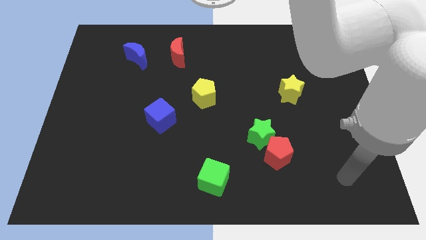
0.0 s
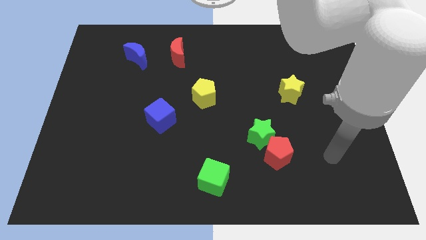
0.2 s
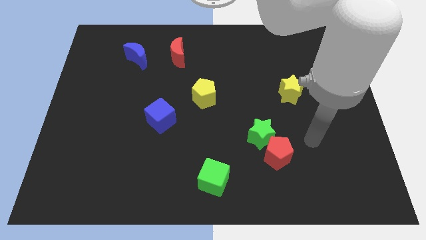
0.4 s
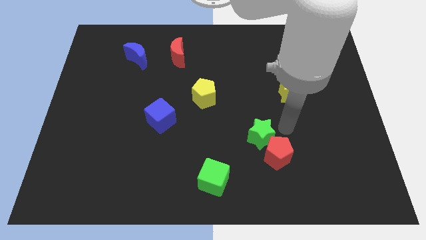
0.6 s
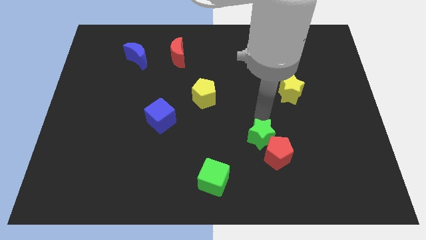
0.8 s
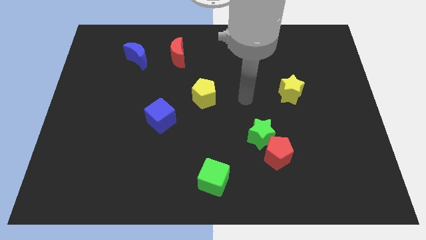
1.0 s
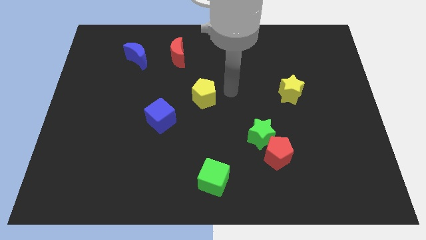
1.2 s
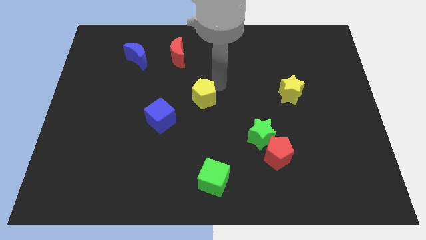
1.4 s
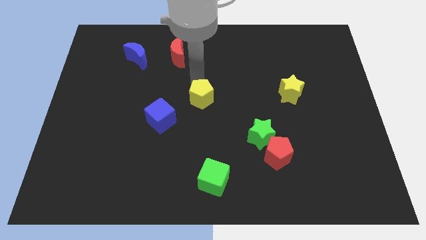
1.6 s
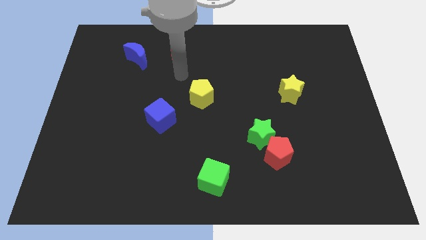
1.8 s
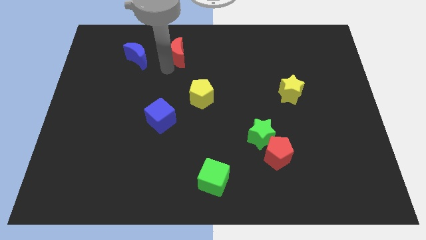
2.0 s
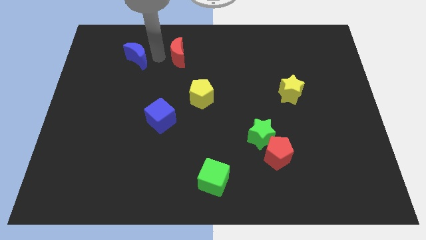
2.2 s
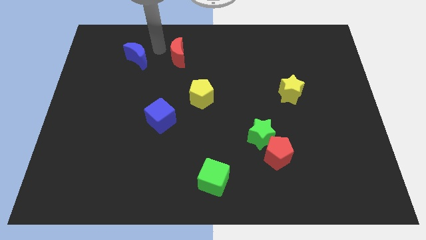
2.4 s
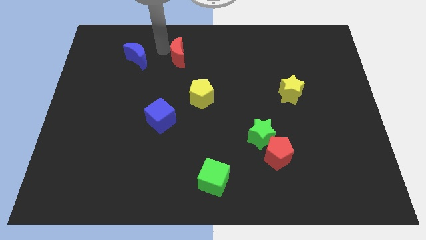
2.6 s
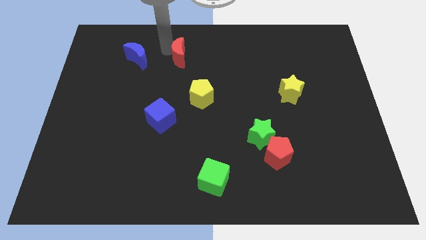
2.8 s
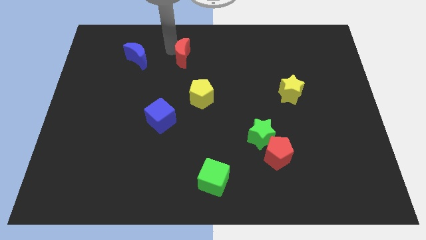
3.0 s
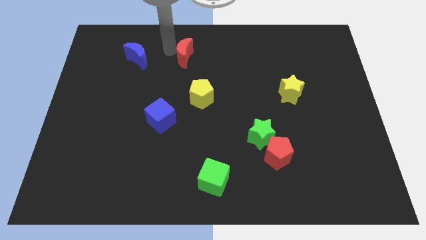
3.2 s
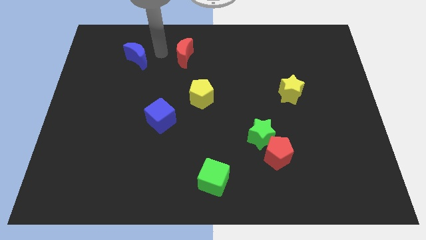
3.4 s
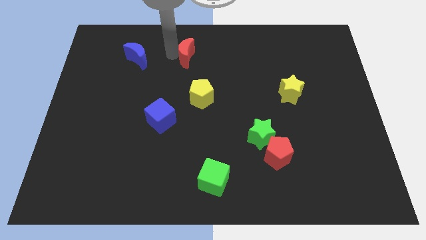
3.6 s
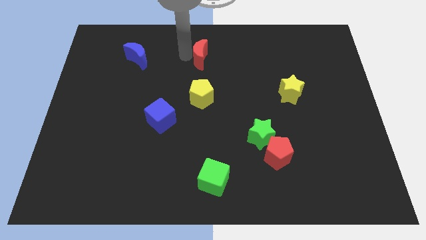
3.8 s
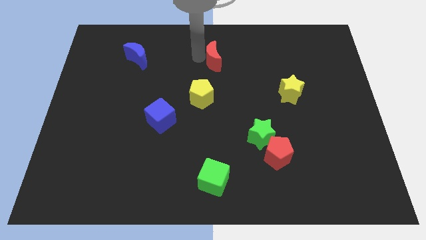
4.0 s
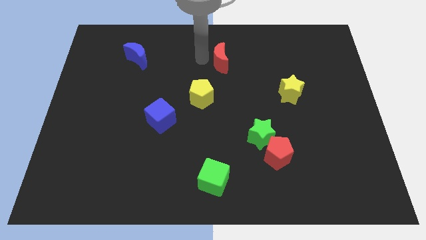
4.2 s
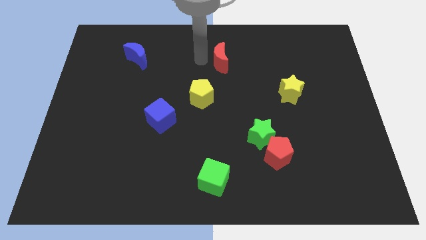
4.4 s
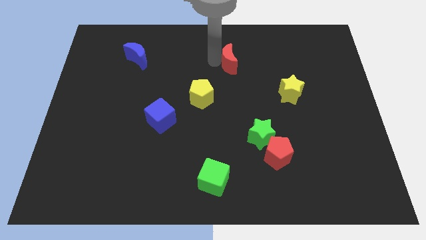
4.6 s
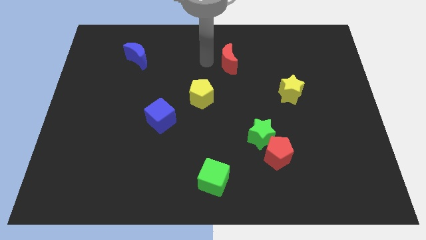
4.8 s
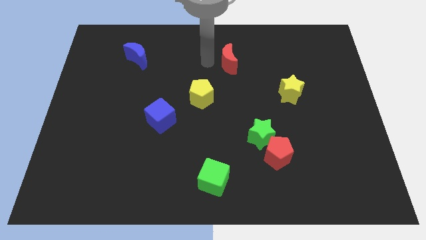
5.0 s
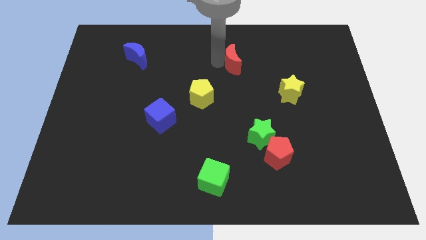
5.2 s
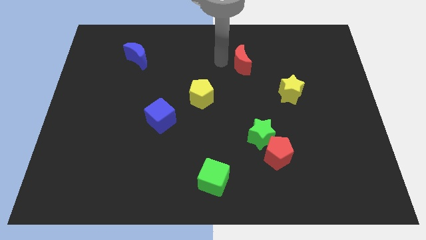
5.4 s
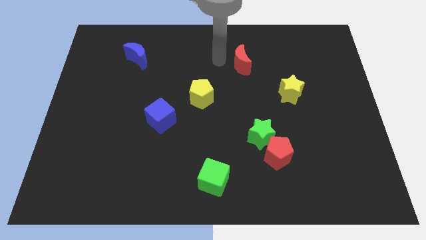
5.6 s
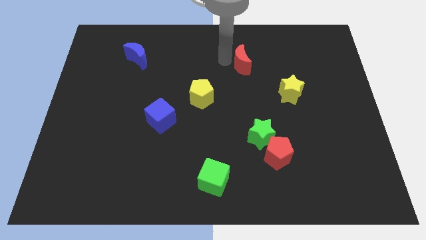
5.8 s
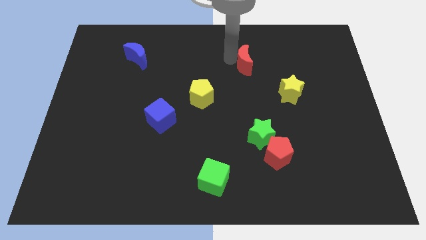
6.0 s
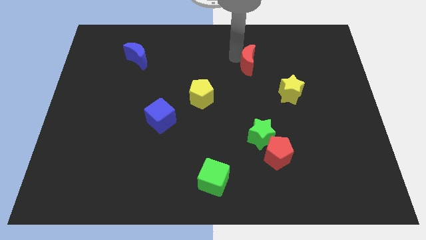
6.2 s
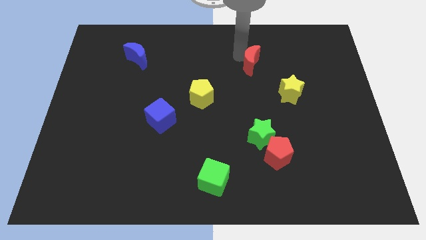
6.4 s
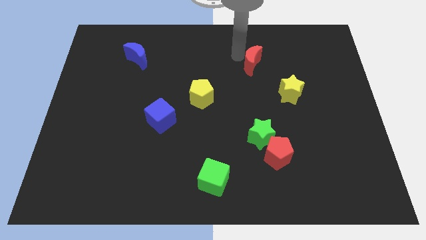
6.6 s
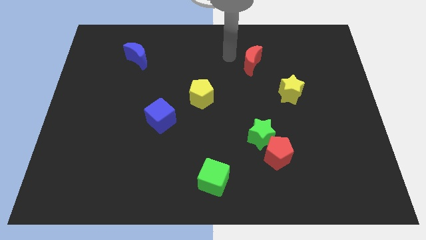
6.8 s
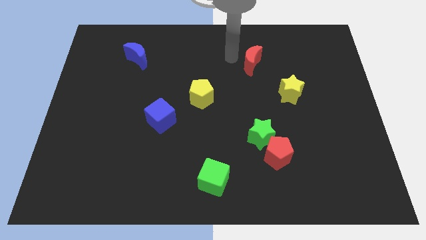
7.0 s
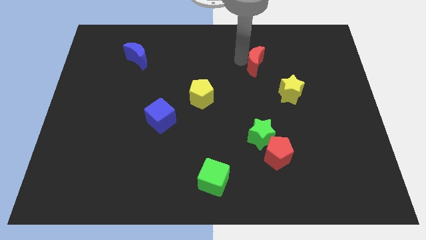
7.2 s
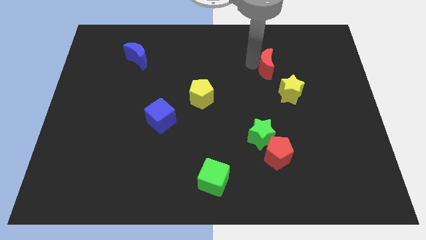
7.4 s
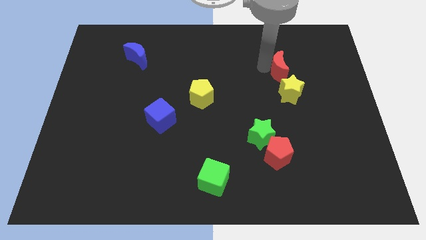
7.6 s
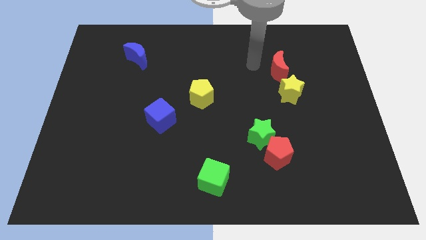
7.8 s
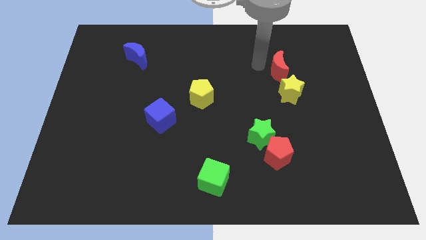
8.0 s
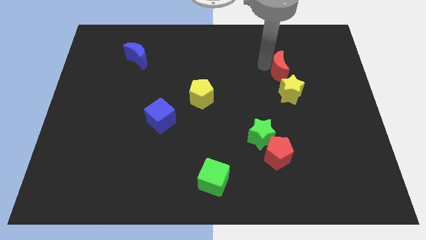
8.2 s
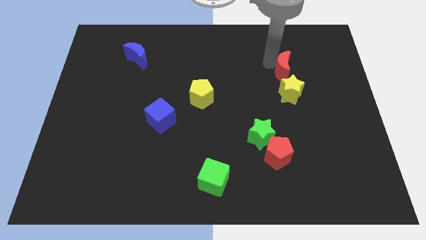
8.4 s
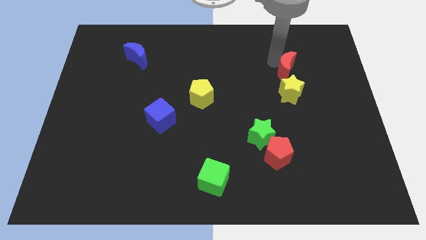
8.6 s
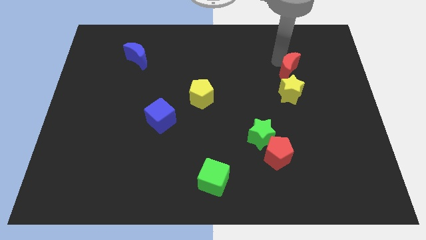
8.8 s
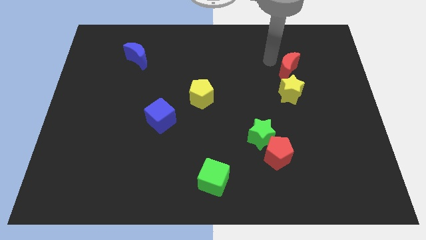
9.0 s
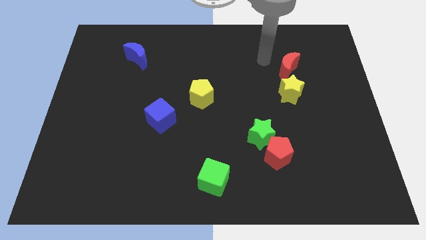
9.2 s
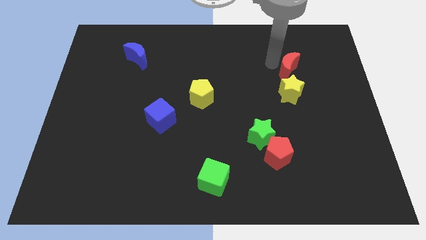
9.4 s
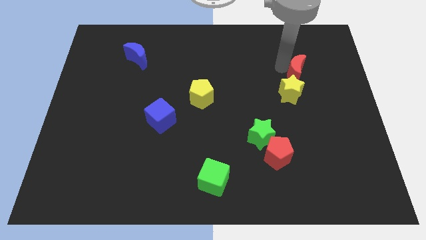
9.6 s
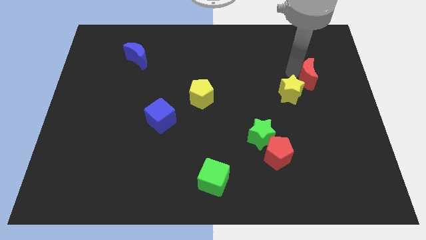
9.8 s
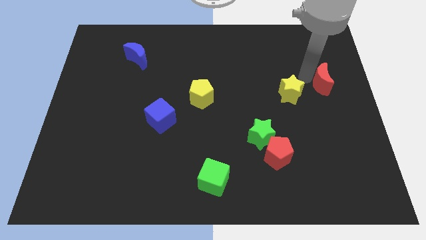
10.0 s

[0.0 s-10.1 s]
push the red moon to the right side

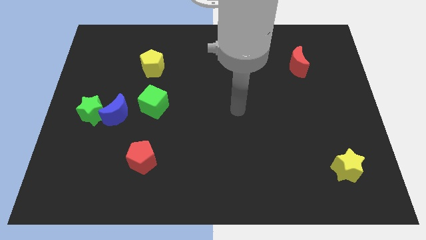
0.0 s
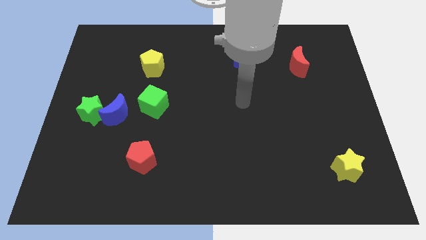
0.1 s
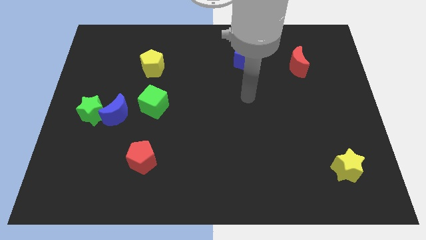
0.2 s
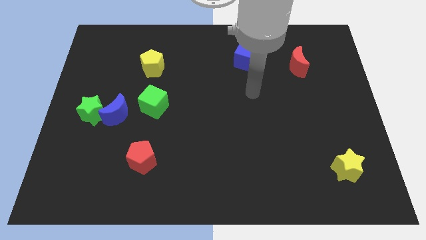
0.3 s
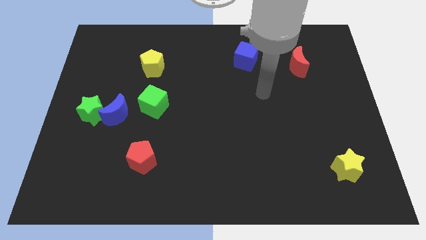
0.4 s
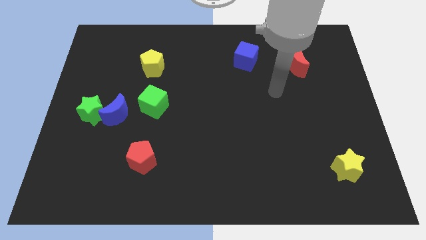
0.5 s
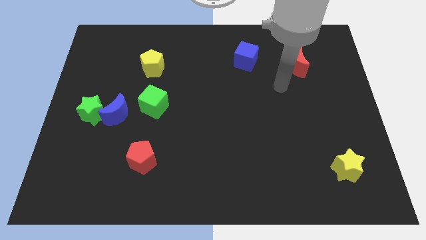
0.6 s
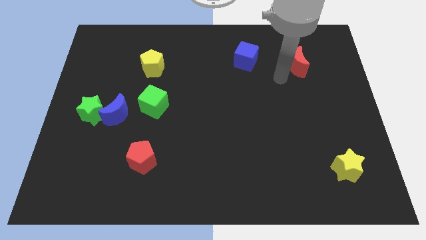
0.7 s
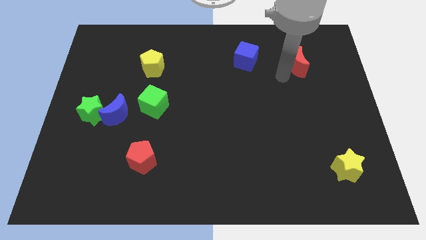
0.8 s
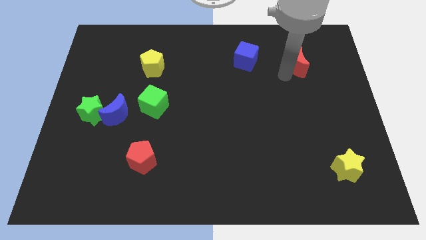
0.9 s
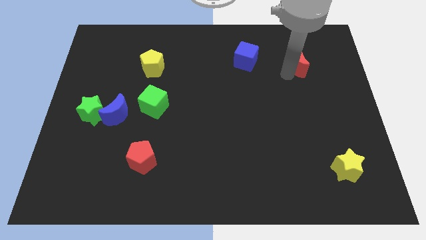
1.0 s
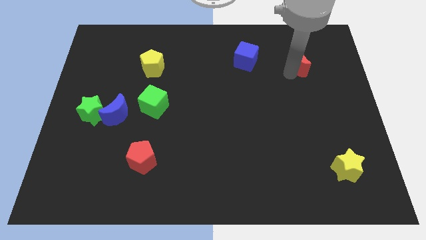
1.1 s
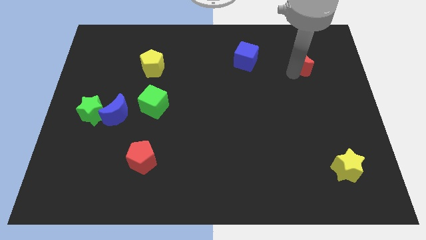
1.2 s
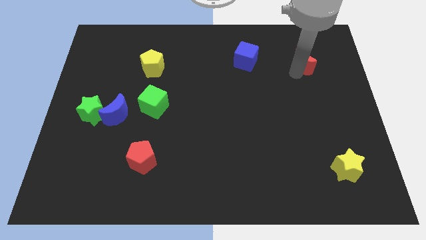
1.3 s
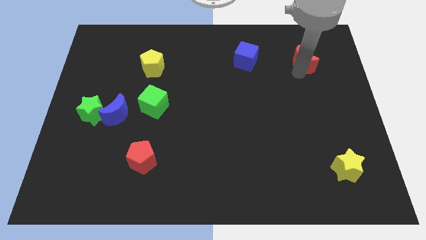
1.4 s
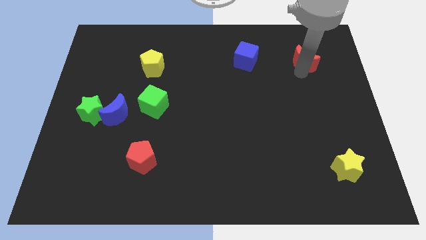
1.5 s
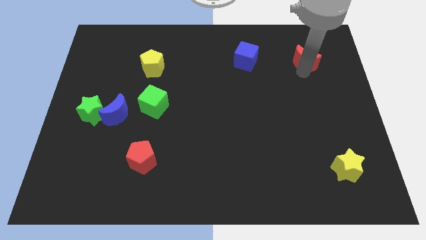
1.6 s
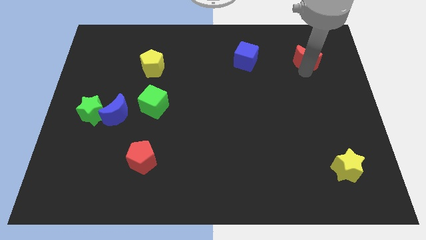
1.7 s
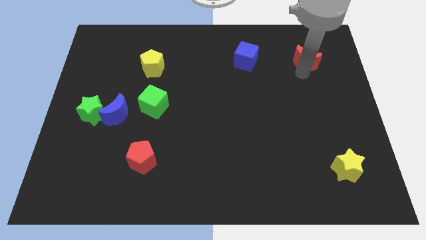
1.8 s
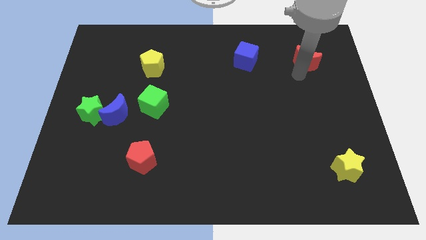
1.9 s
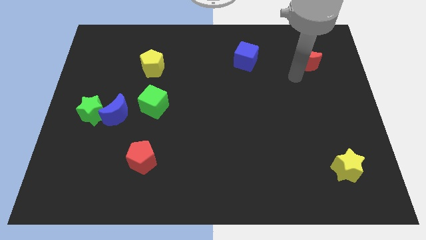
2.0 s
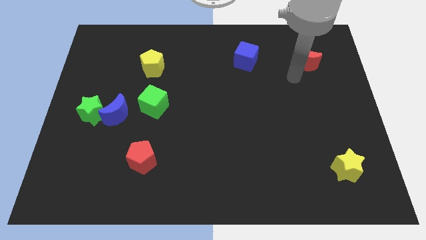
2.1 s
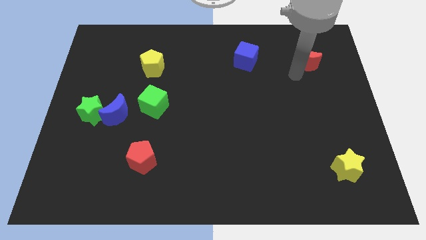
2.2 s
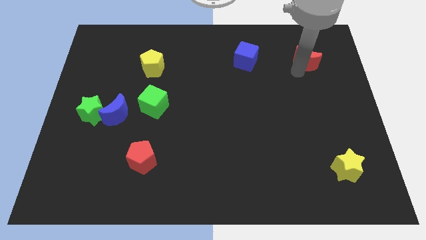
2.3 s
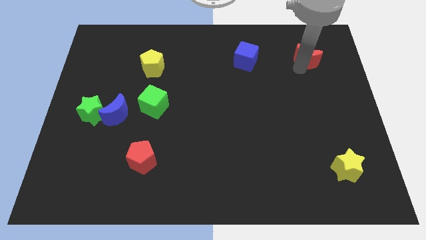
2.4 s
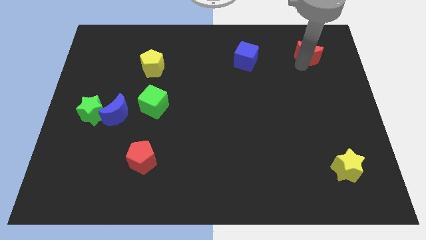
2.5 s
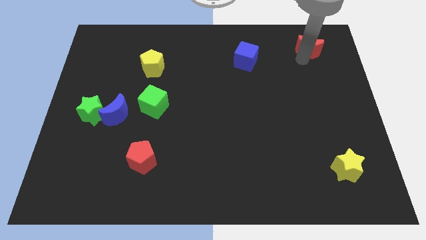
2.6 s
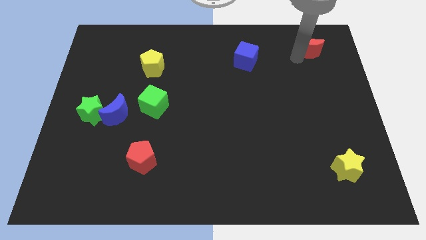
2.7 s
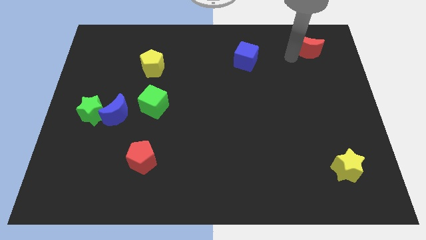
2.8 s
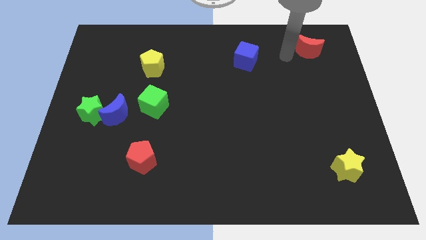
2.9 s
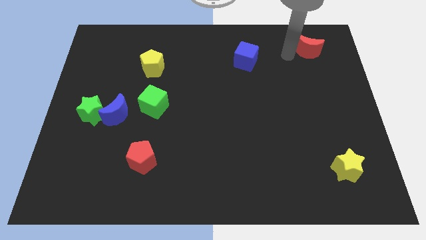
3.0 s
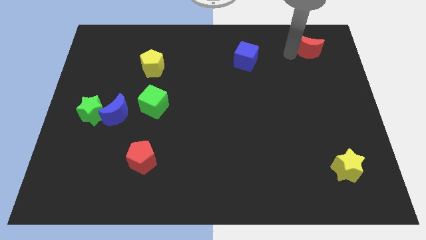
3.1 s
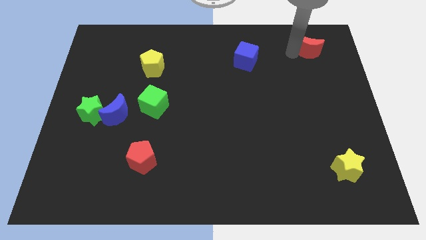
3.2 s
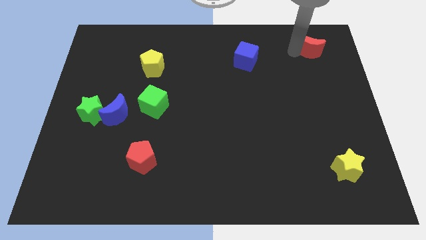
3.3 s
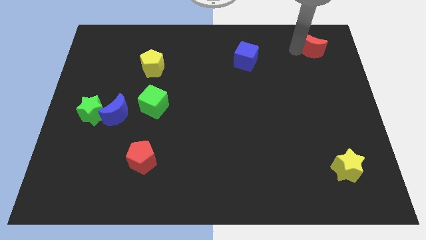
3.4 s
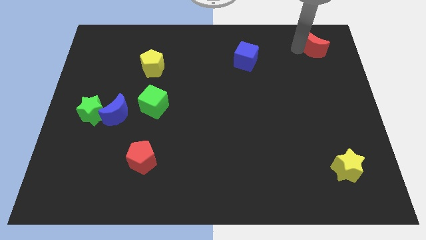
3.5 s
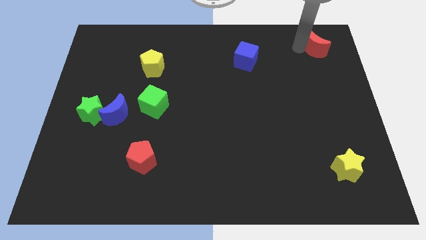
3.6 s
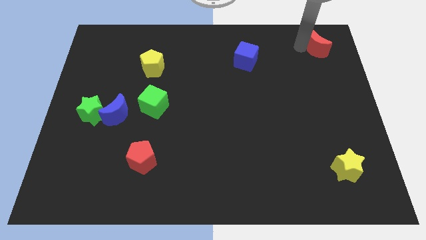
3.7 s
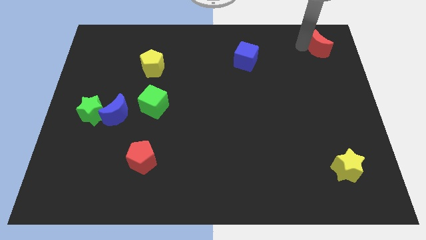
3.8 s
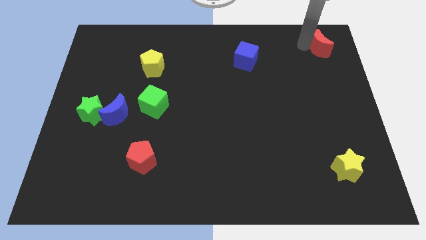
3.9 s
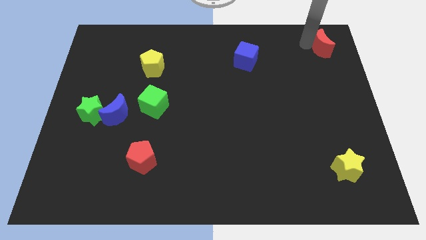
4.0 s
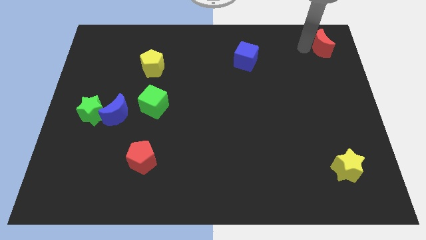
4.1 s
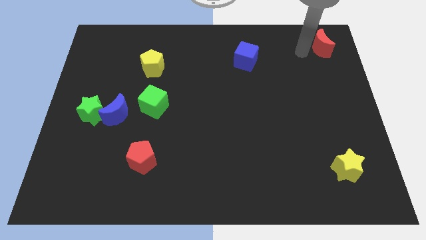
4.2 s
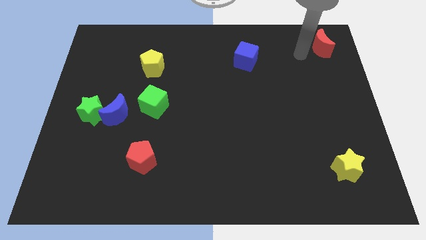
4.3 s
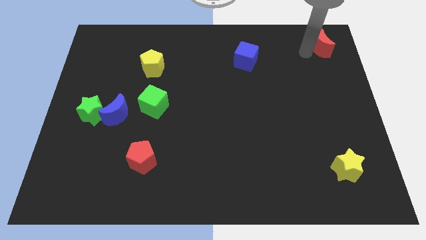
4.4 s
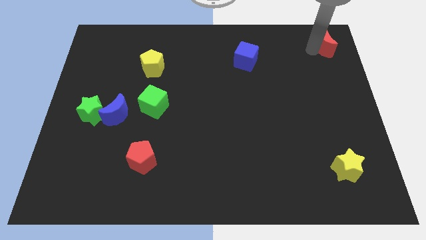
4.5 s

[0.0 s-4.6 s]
push the red moon to the top right
